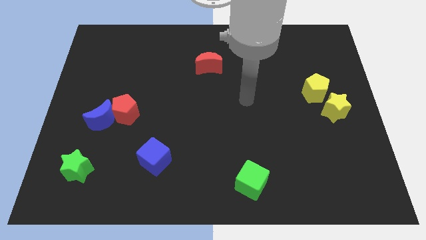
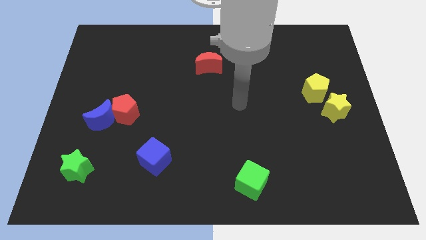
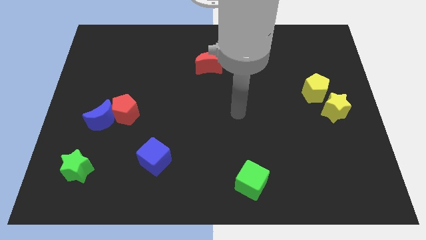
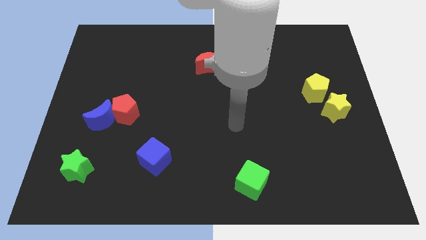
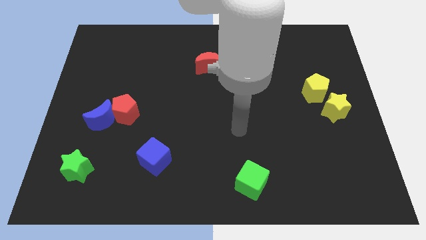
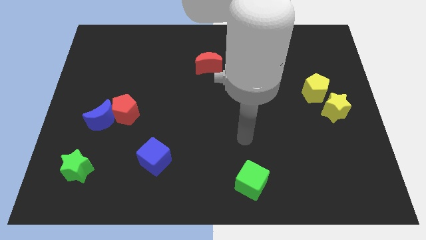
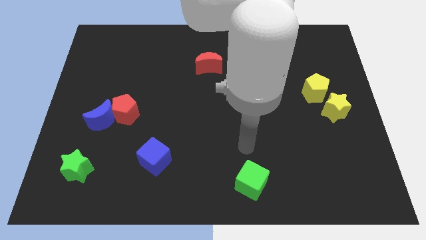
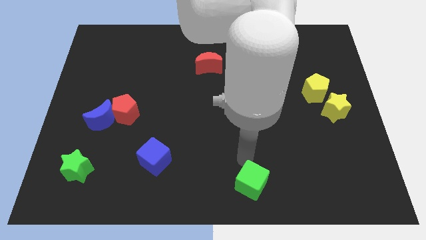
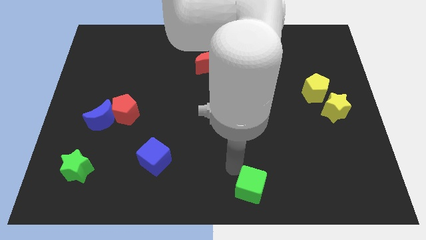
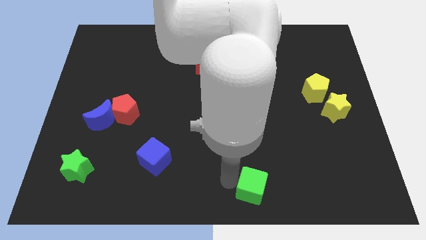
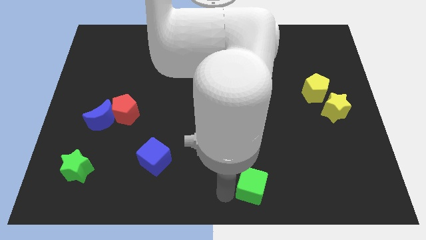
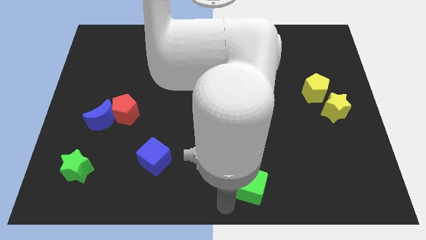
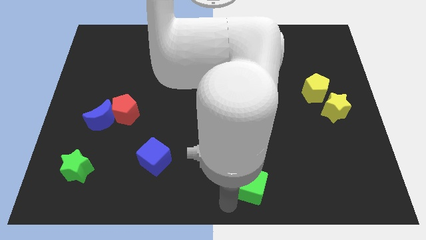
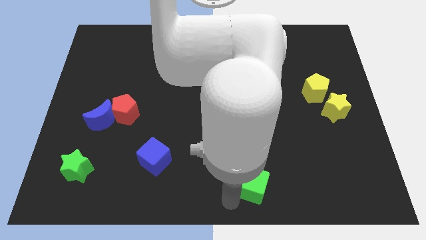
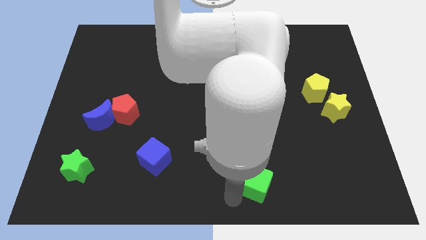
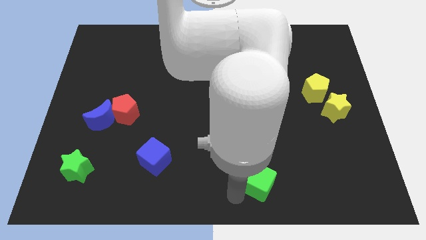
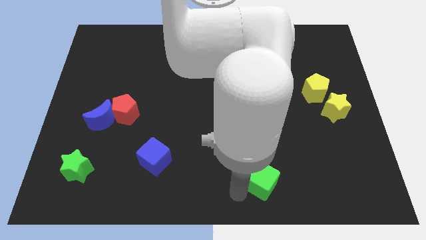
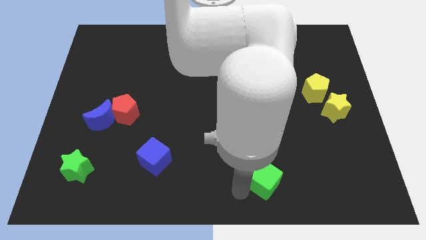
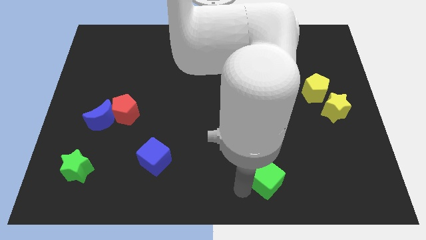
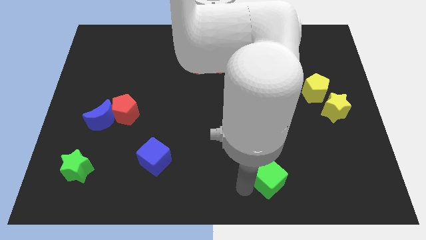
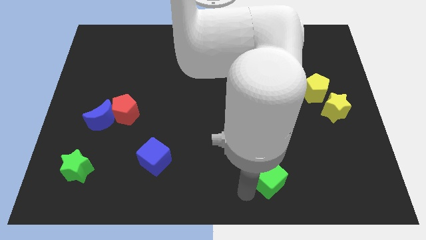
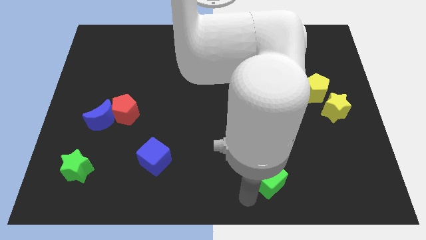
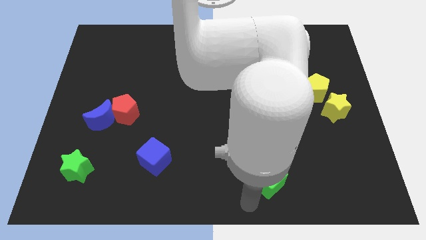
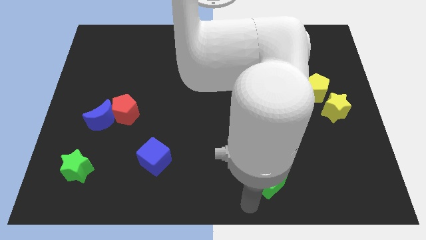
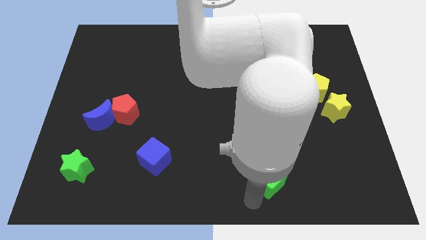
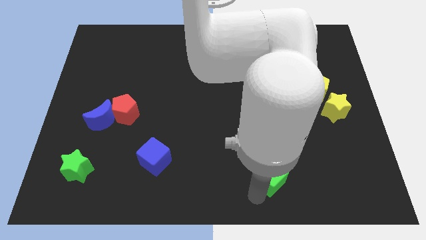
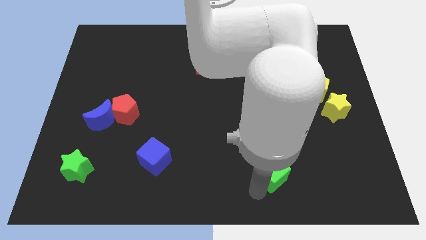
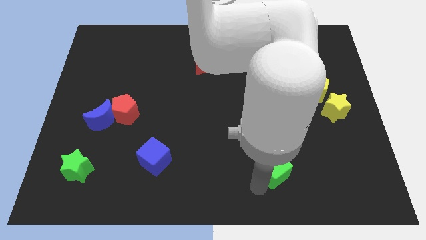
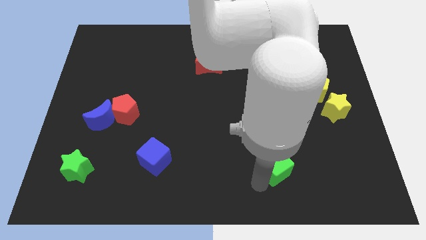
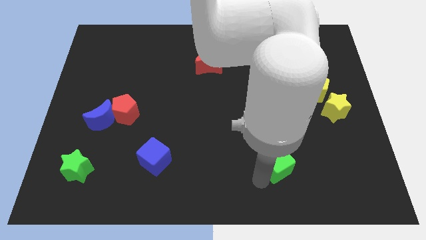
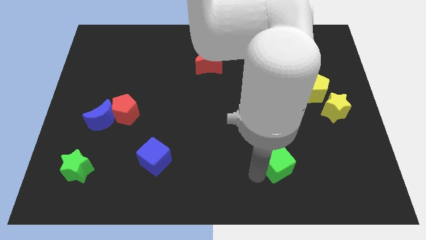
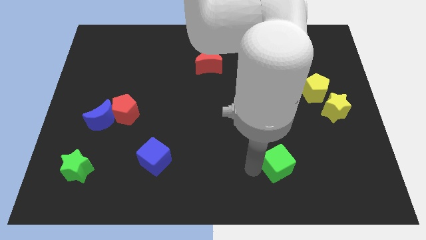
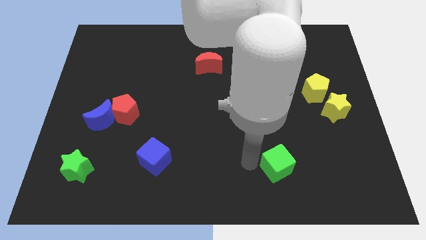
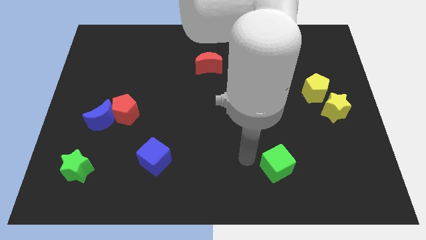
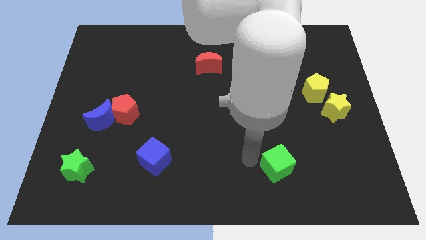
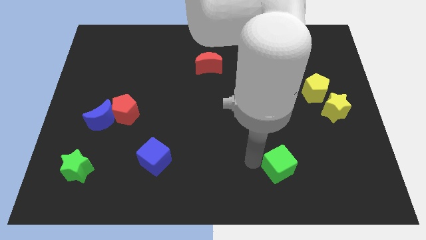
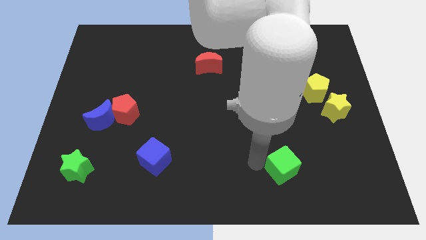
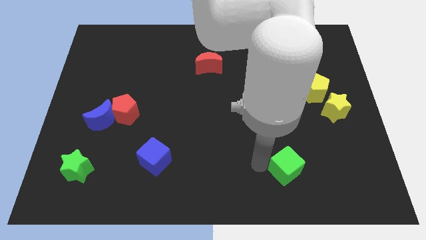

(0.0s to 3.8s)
slide the green cube to the right somewhat

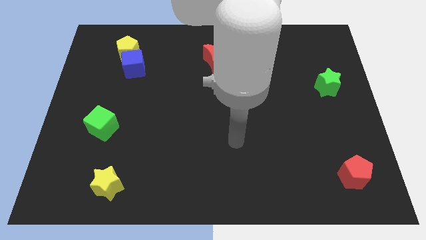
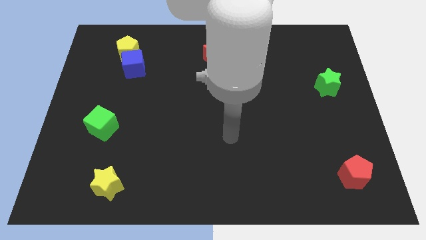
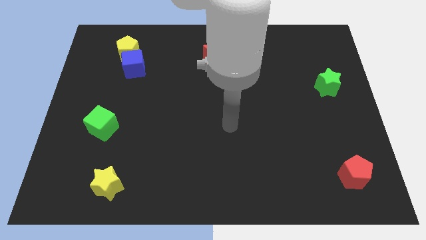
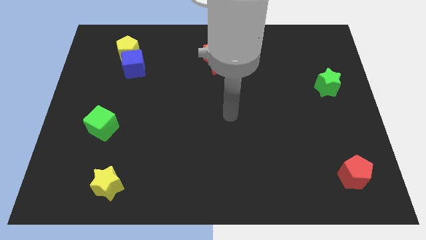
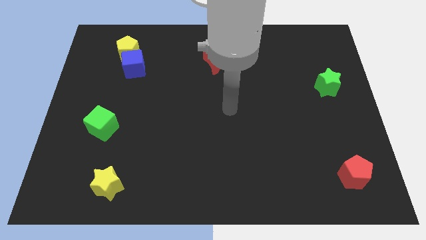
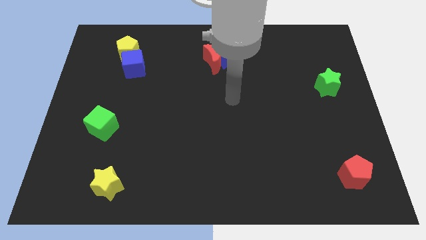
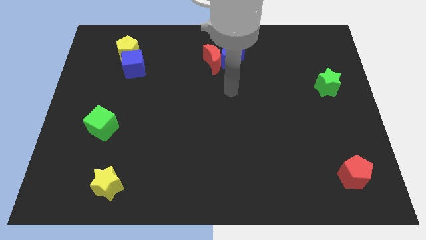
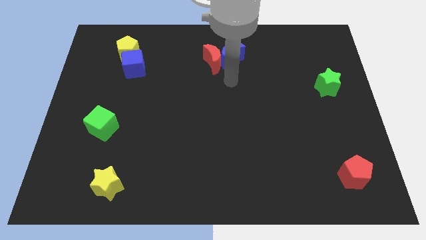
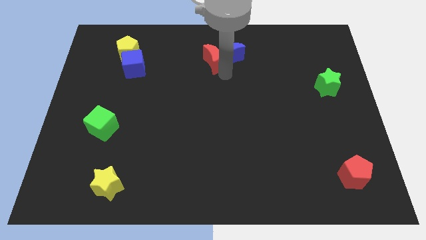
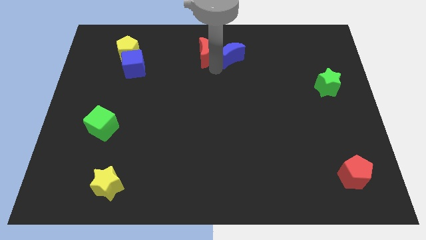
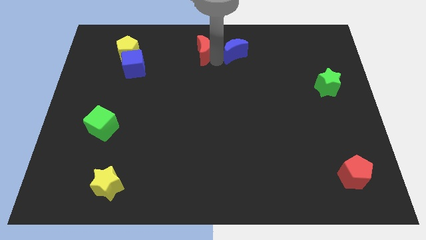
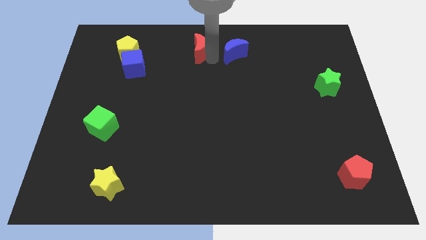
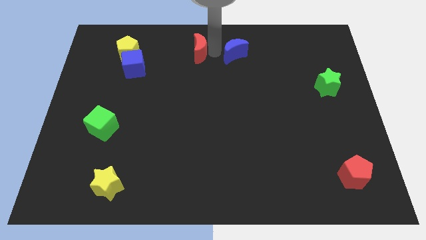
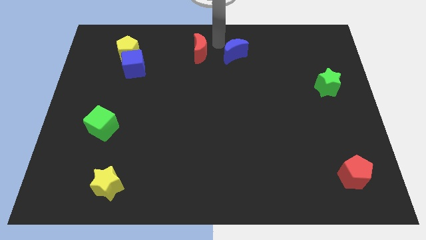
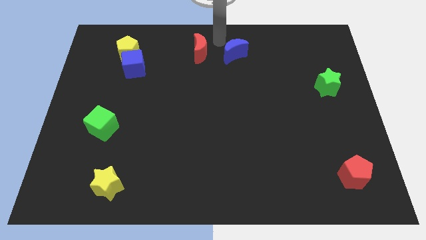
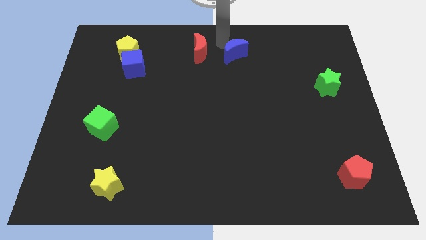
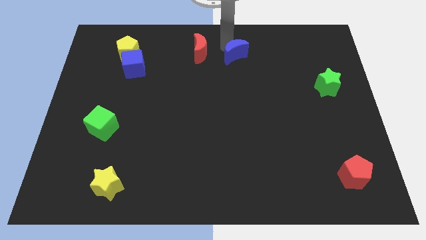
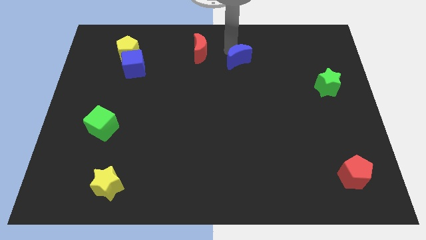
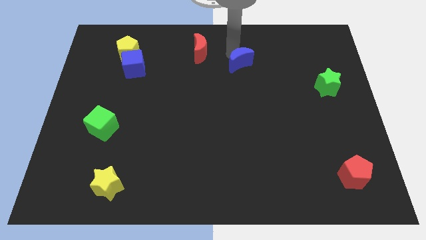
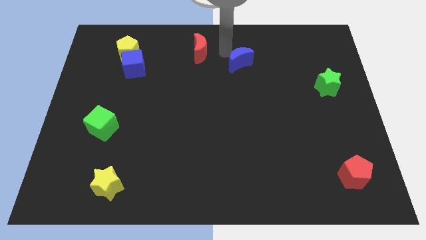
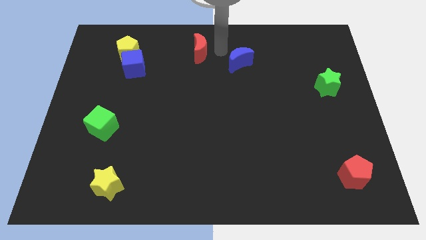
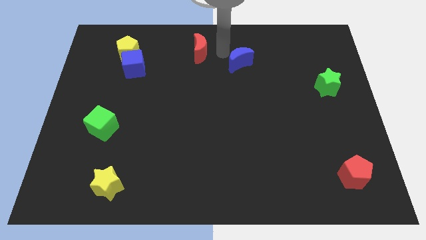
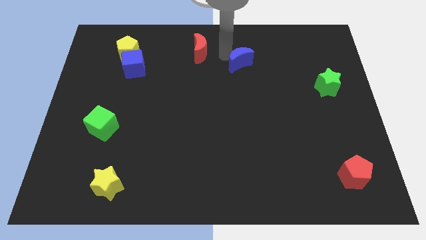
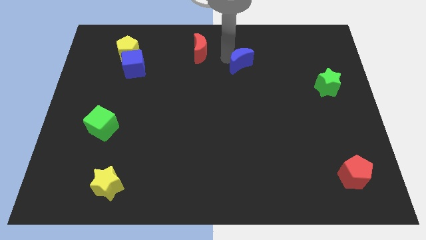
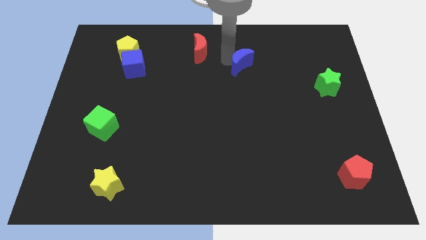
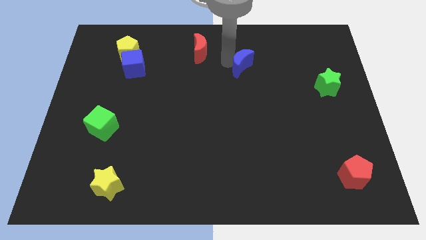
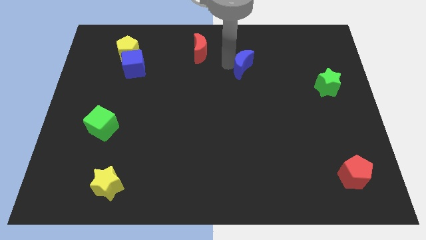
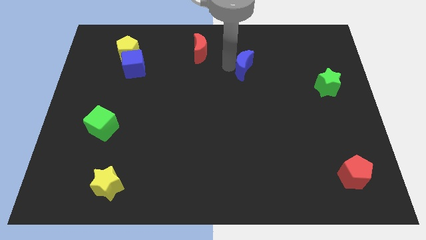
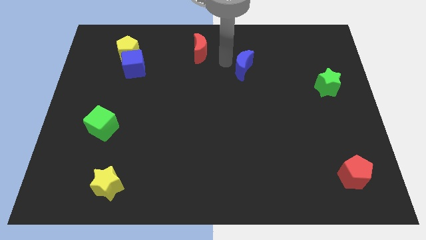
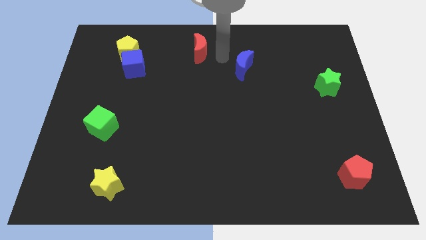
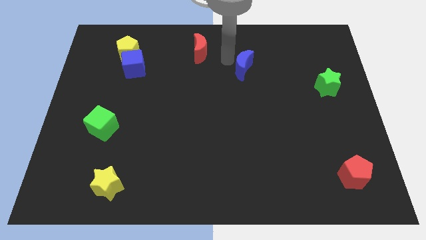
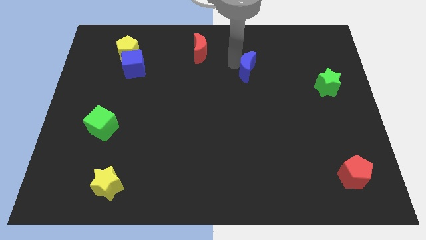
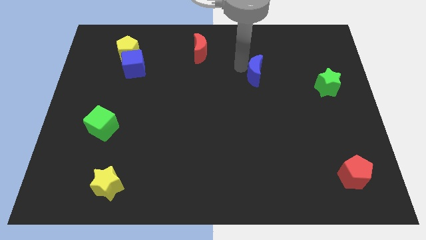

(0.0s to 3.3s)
push the blue moon a bit diagonally downwards and to the right

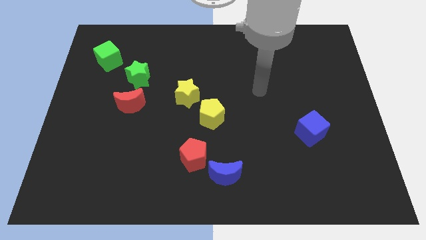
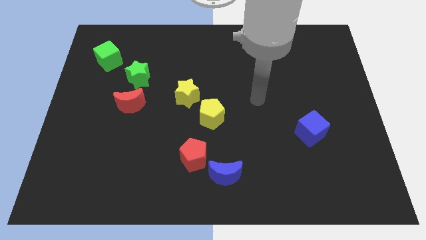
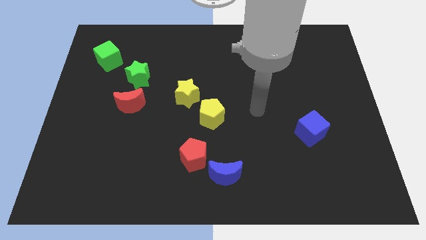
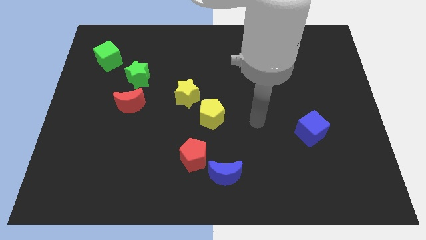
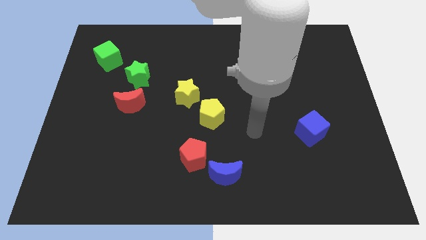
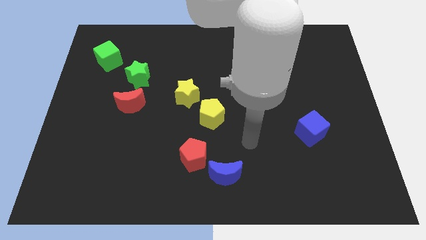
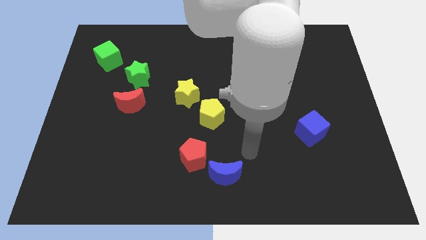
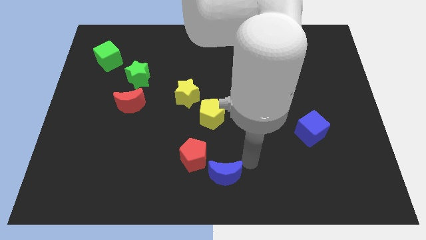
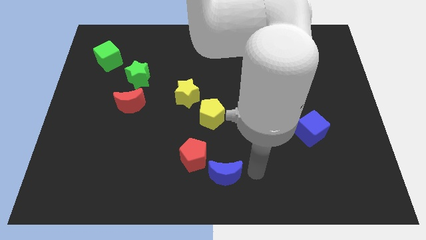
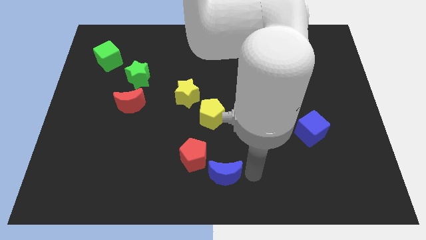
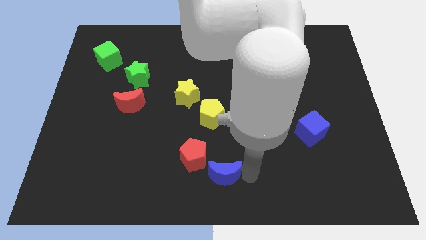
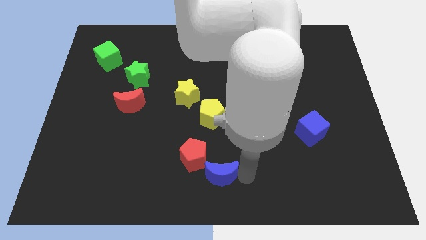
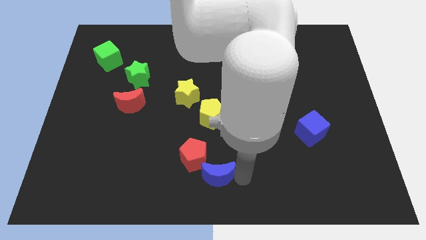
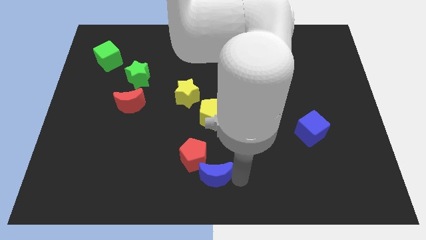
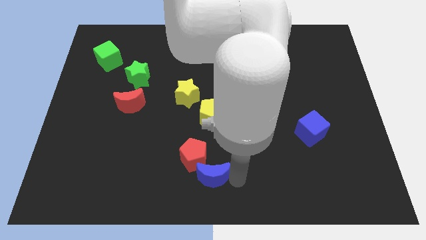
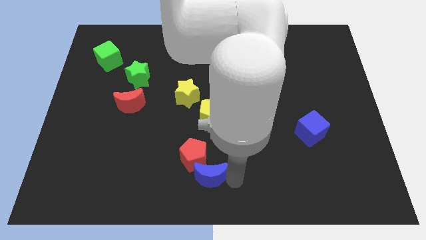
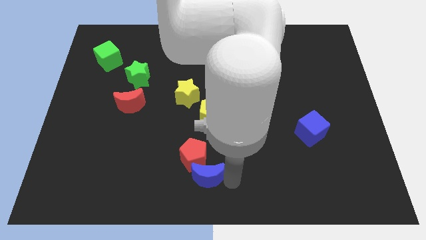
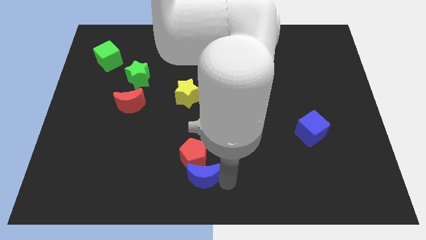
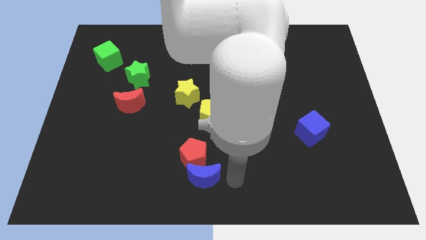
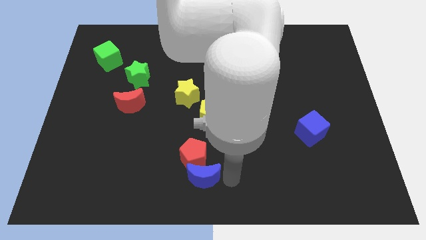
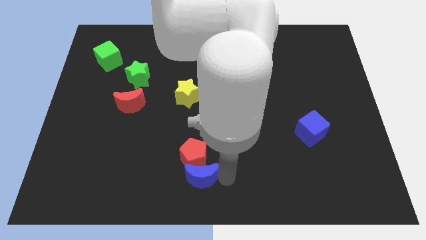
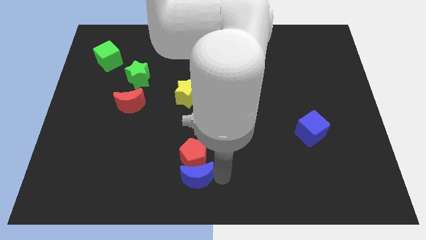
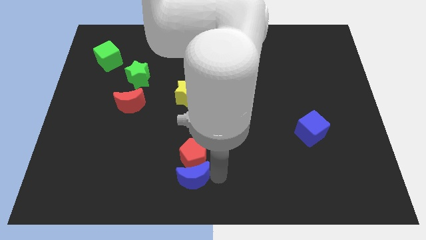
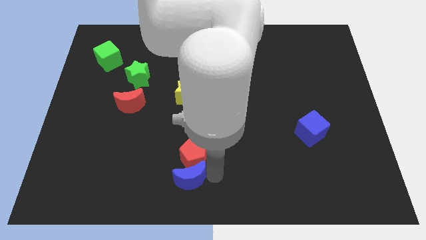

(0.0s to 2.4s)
push the blue moon a little bit left
